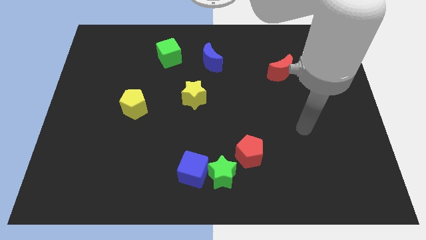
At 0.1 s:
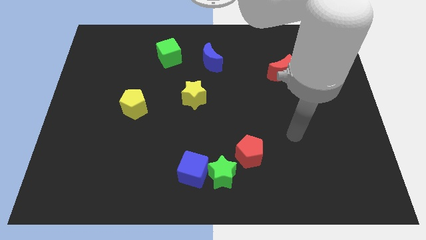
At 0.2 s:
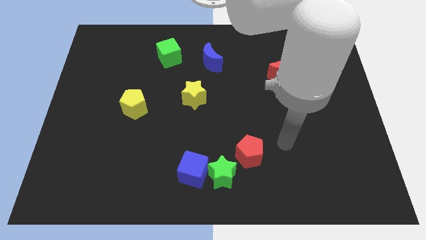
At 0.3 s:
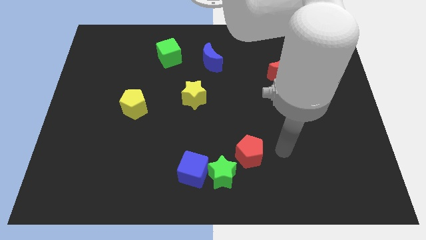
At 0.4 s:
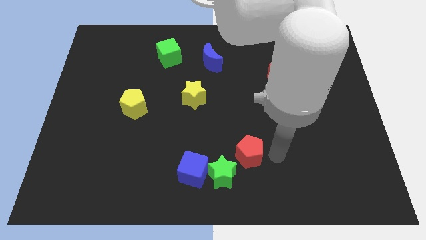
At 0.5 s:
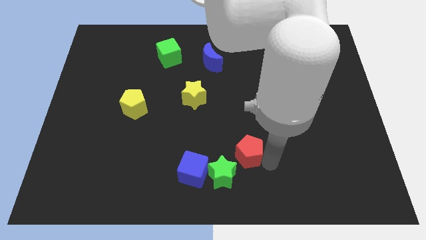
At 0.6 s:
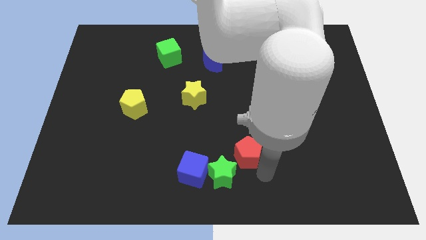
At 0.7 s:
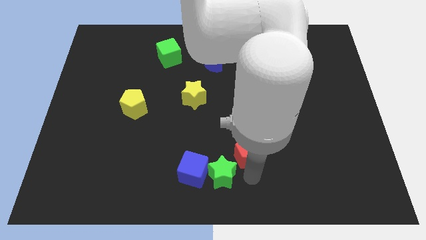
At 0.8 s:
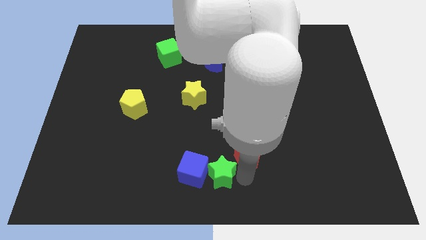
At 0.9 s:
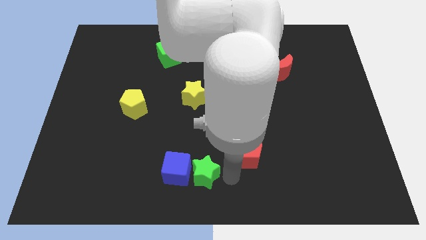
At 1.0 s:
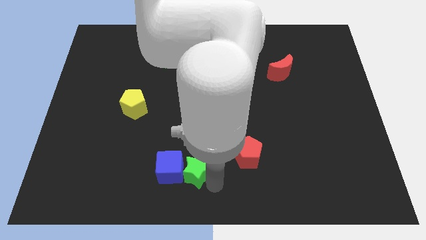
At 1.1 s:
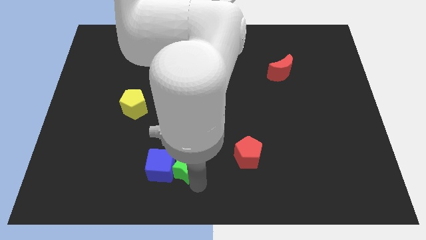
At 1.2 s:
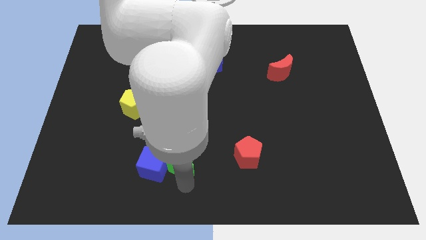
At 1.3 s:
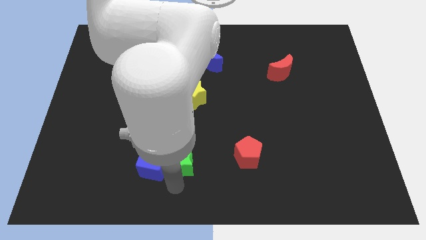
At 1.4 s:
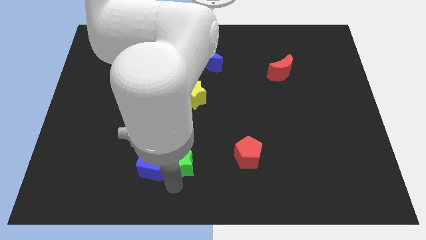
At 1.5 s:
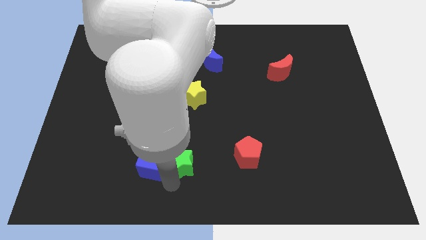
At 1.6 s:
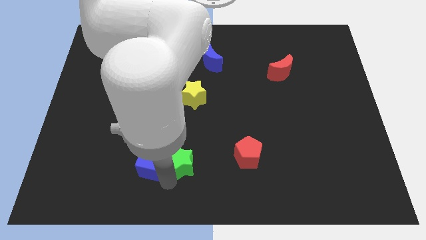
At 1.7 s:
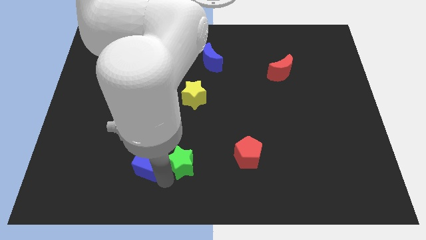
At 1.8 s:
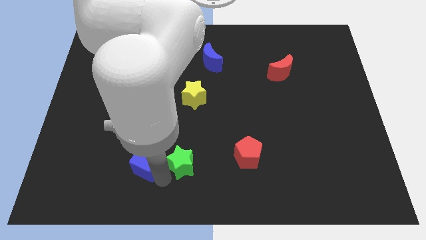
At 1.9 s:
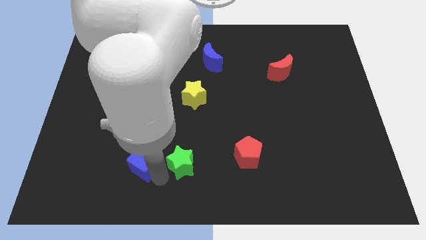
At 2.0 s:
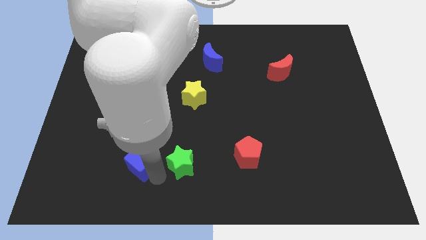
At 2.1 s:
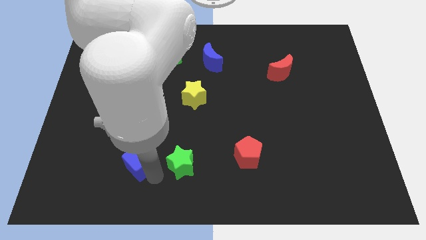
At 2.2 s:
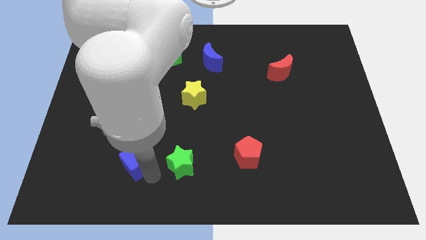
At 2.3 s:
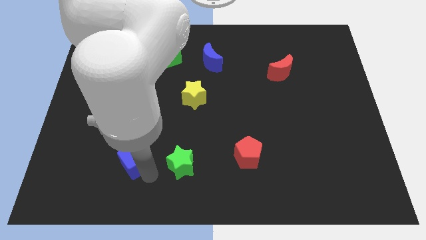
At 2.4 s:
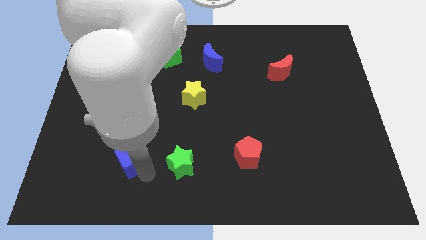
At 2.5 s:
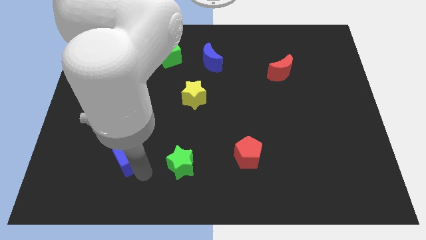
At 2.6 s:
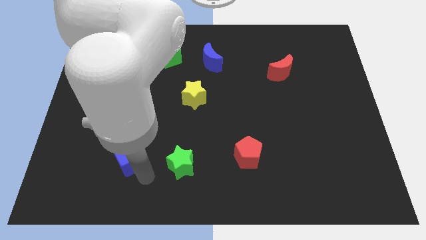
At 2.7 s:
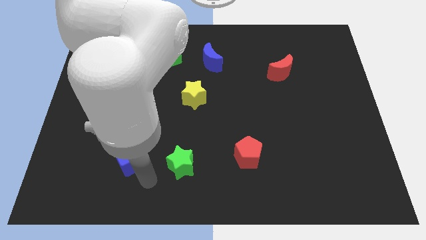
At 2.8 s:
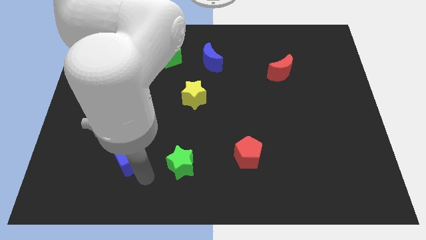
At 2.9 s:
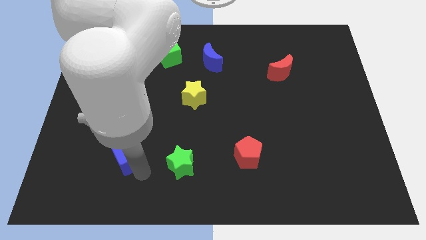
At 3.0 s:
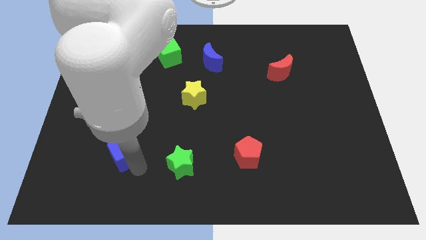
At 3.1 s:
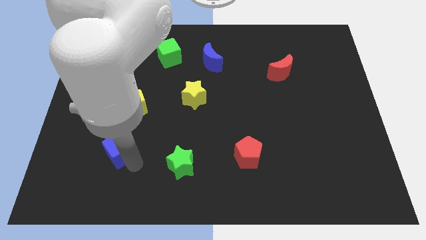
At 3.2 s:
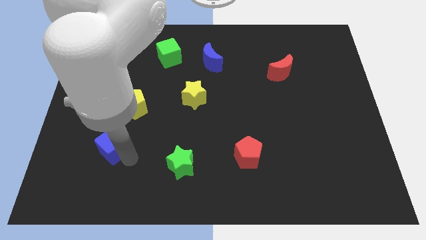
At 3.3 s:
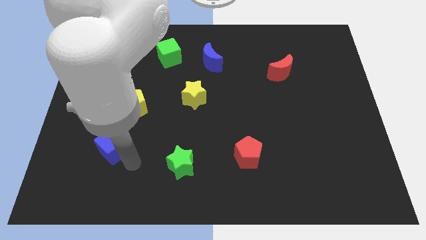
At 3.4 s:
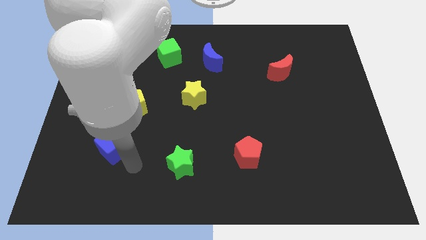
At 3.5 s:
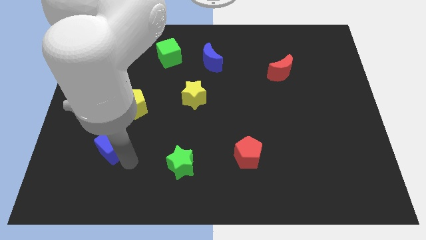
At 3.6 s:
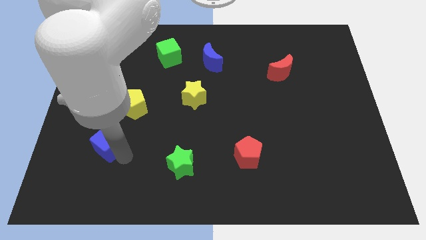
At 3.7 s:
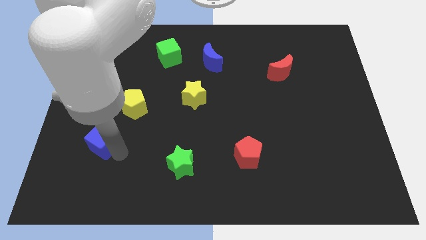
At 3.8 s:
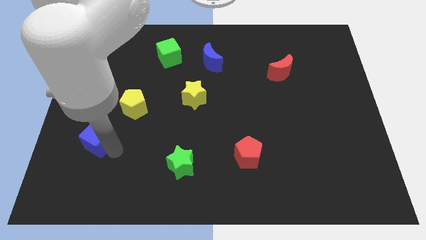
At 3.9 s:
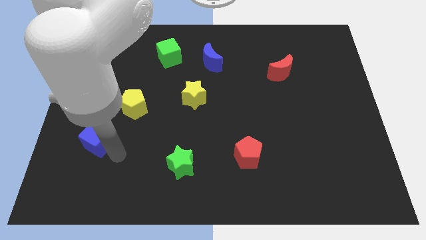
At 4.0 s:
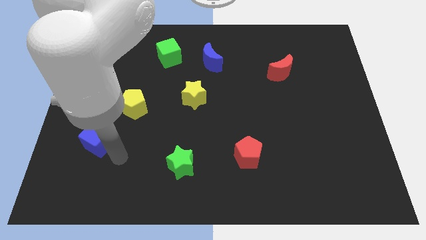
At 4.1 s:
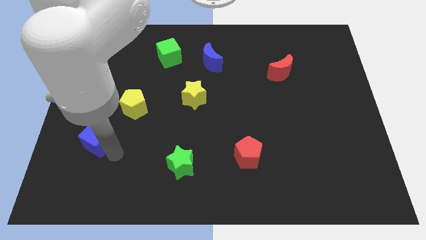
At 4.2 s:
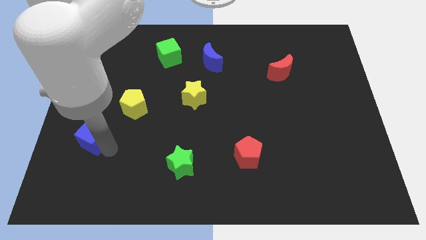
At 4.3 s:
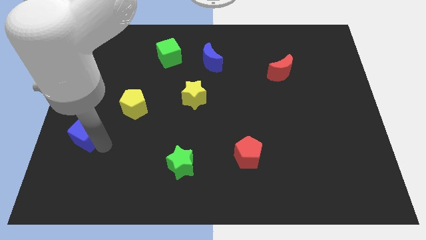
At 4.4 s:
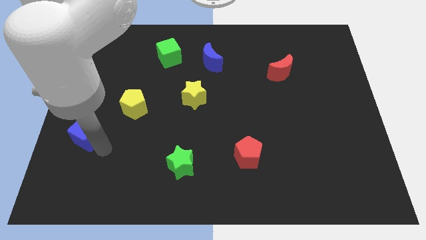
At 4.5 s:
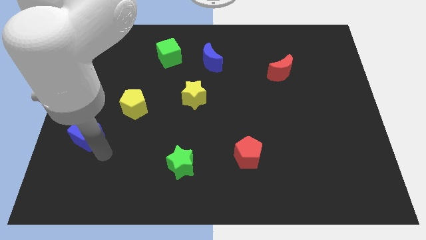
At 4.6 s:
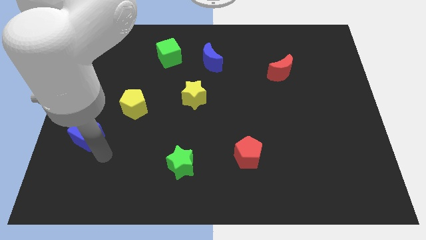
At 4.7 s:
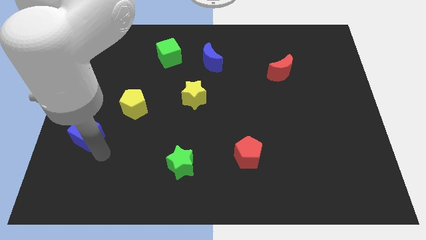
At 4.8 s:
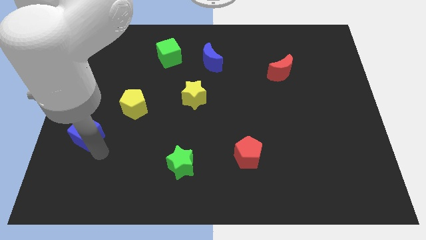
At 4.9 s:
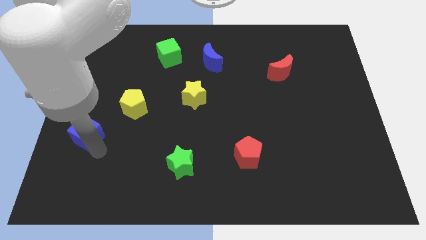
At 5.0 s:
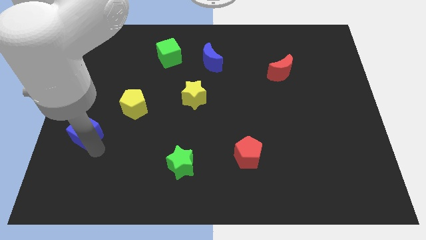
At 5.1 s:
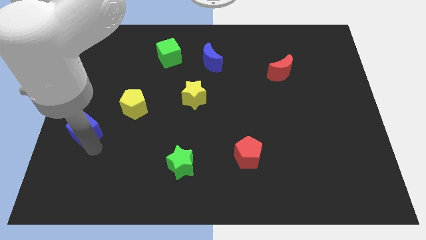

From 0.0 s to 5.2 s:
slide the blue cube to the left side of the board

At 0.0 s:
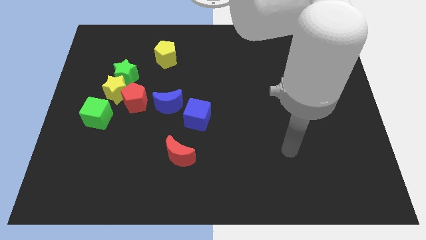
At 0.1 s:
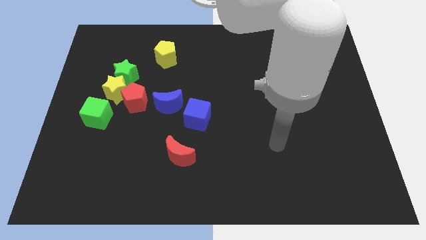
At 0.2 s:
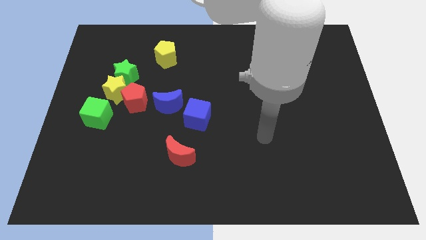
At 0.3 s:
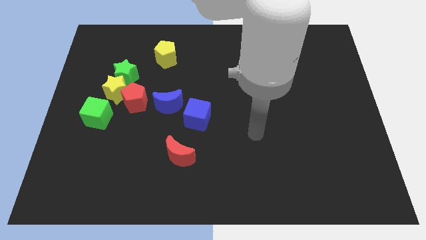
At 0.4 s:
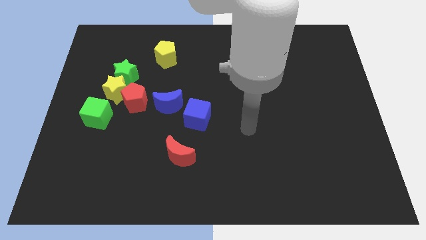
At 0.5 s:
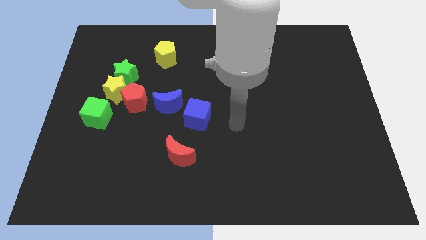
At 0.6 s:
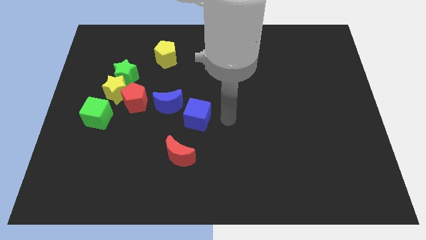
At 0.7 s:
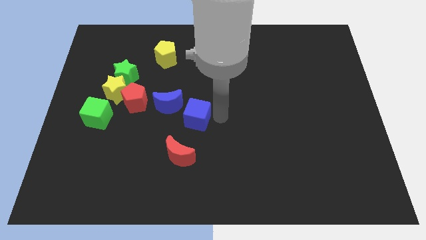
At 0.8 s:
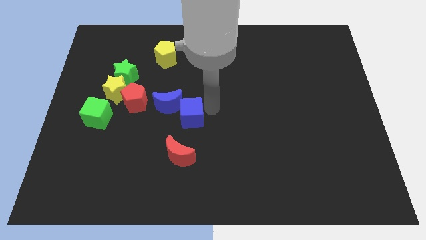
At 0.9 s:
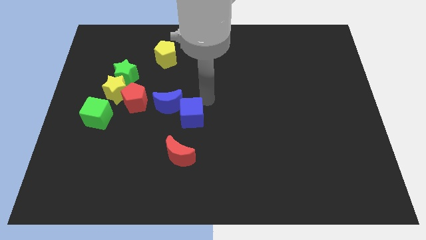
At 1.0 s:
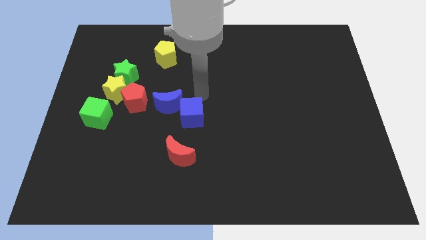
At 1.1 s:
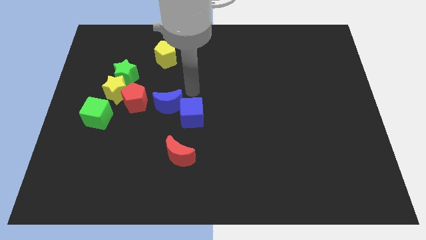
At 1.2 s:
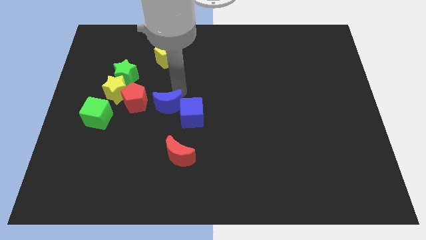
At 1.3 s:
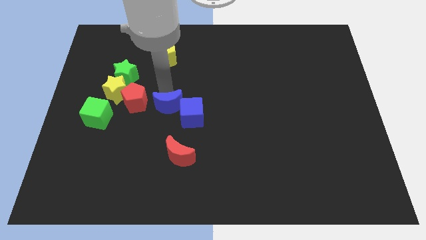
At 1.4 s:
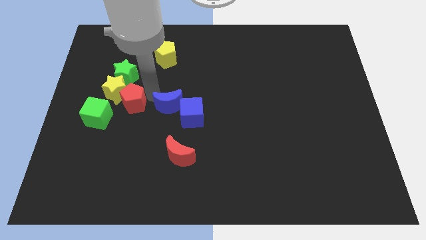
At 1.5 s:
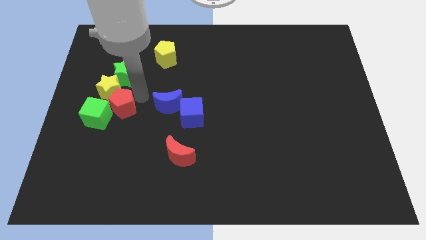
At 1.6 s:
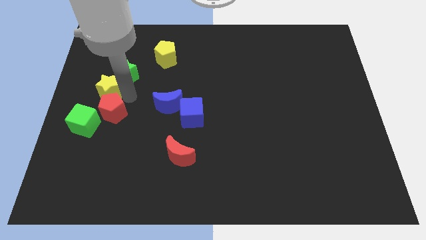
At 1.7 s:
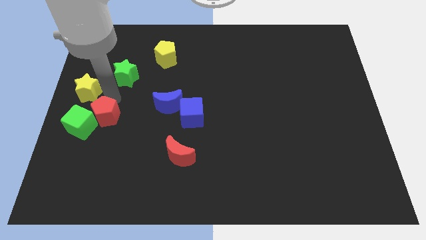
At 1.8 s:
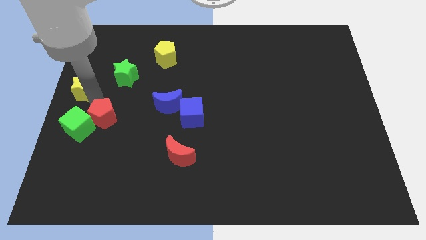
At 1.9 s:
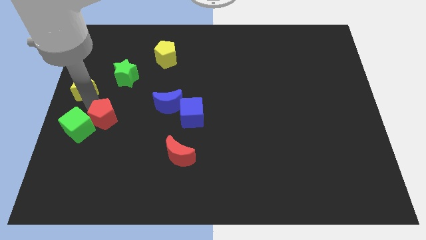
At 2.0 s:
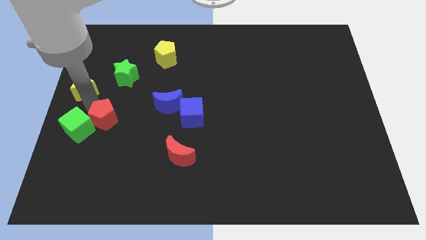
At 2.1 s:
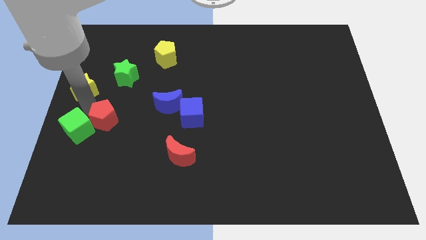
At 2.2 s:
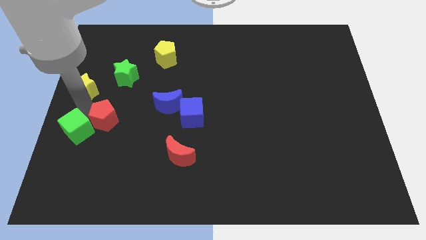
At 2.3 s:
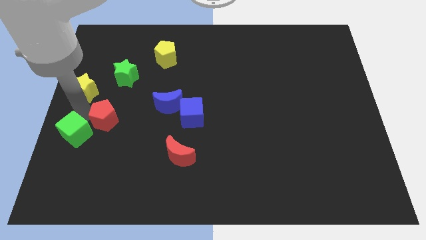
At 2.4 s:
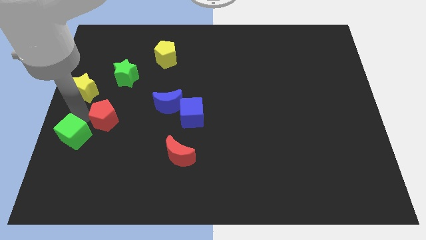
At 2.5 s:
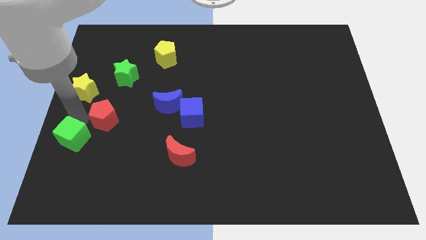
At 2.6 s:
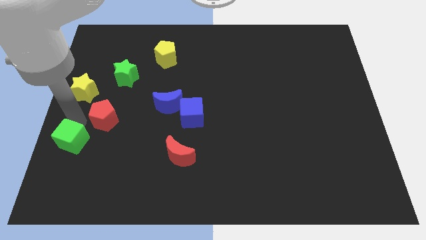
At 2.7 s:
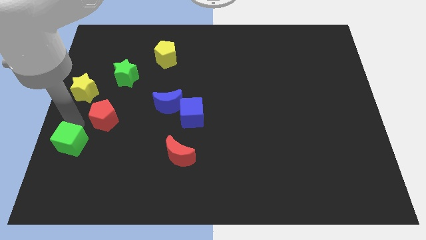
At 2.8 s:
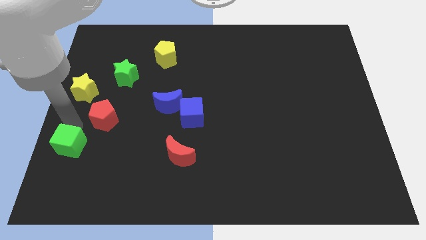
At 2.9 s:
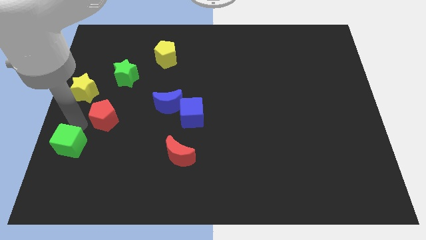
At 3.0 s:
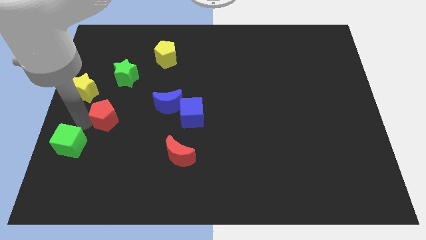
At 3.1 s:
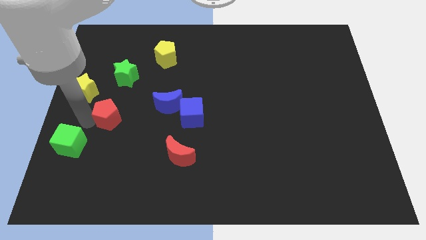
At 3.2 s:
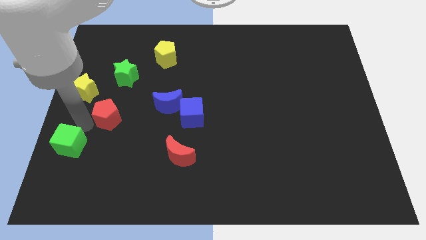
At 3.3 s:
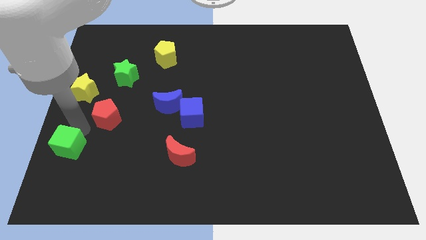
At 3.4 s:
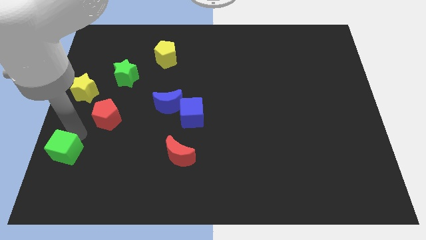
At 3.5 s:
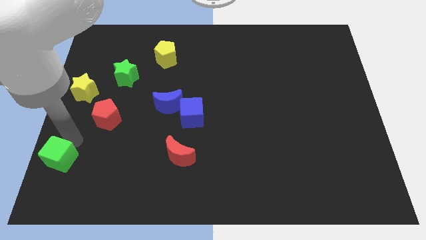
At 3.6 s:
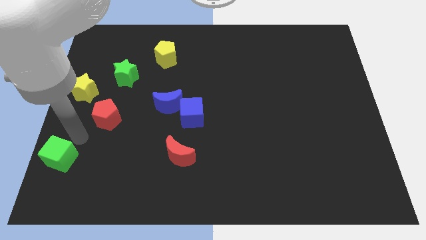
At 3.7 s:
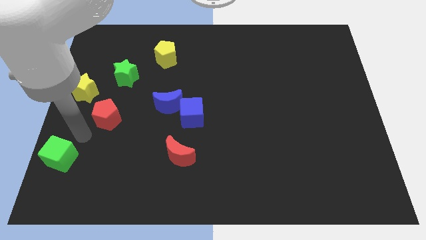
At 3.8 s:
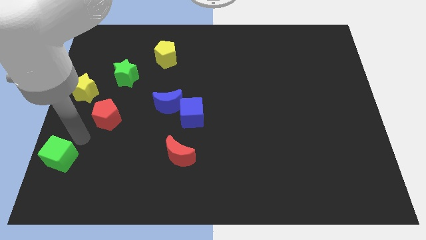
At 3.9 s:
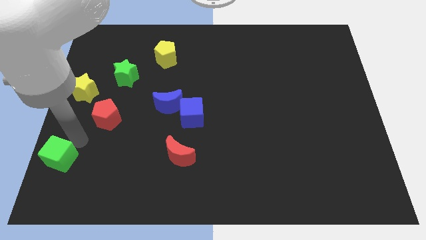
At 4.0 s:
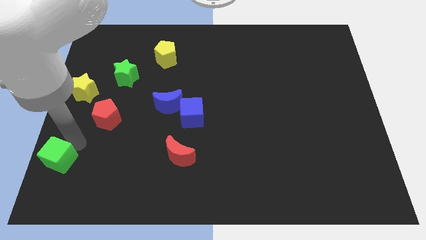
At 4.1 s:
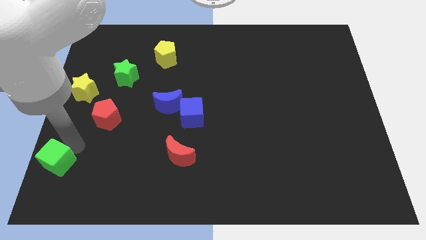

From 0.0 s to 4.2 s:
move the green cube to the bottom left of the board
